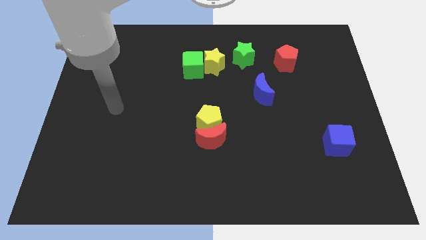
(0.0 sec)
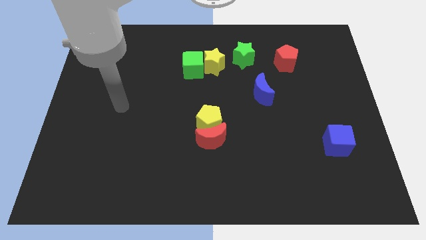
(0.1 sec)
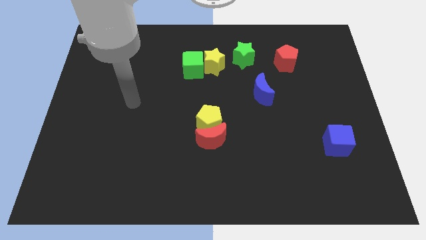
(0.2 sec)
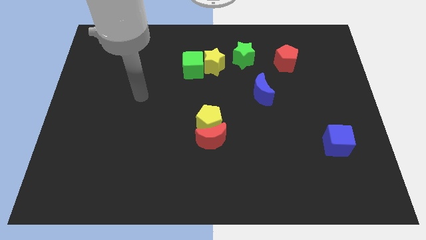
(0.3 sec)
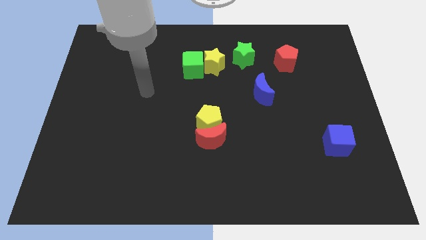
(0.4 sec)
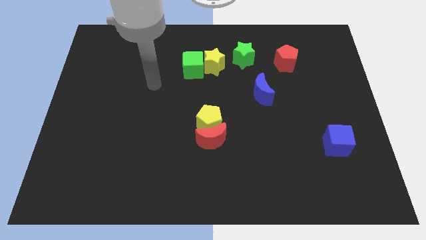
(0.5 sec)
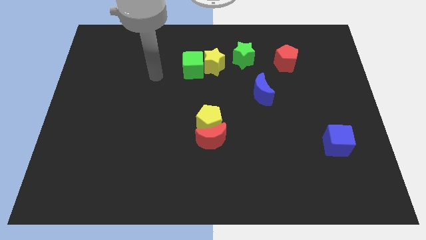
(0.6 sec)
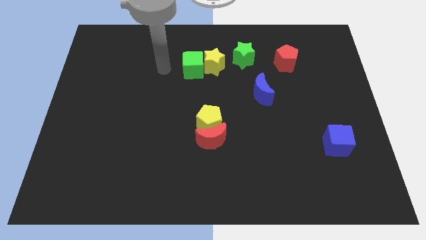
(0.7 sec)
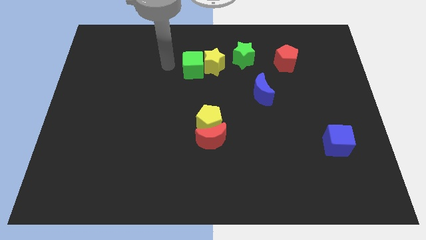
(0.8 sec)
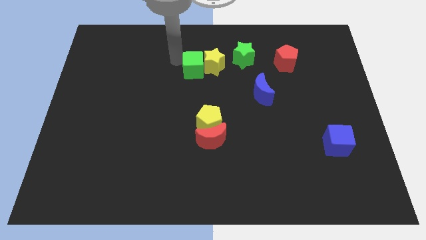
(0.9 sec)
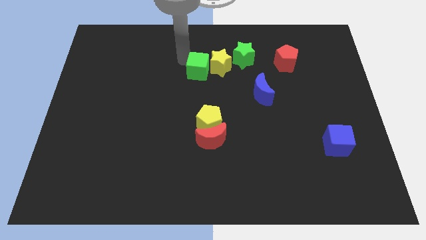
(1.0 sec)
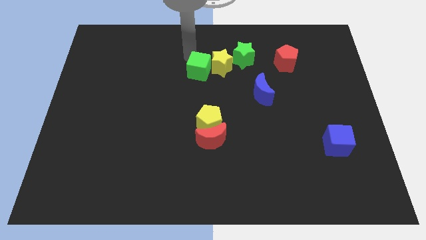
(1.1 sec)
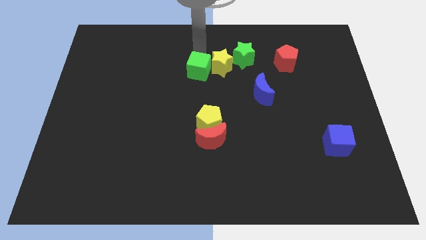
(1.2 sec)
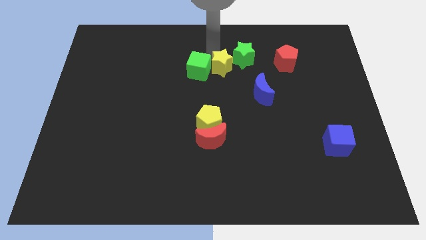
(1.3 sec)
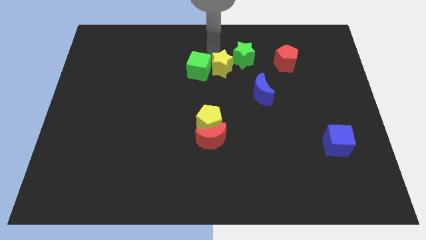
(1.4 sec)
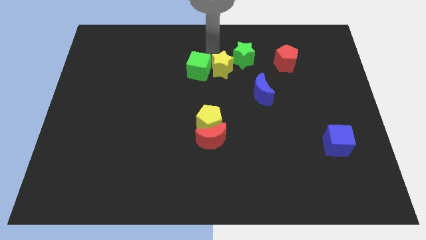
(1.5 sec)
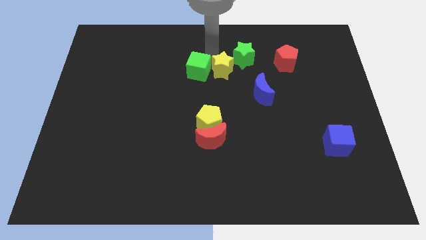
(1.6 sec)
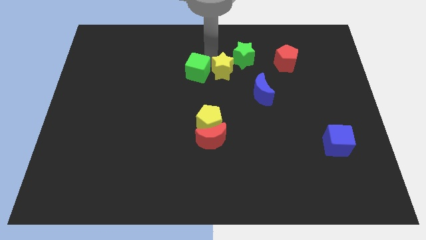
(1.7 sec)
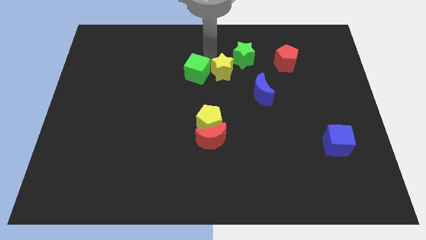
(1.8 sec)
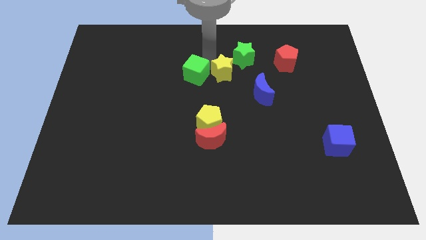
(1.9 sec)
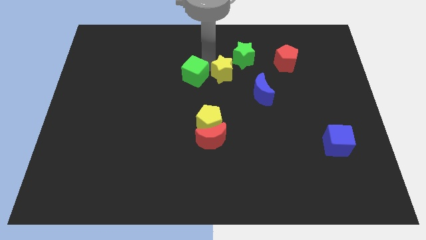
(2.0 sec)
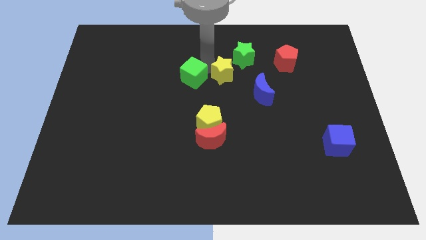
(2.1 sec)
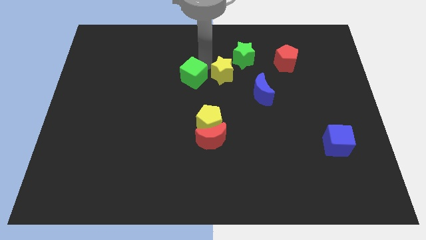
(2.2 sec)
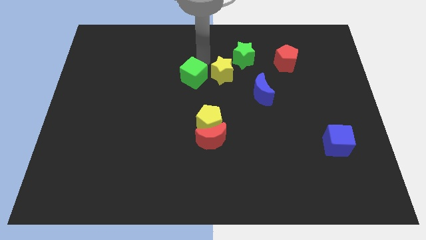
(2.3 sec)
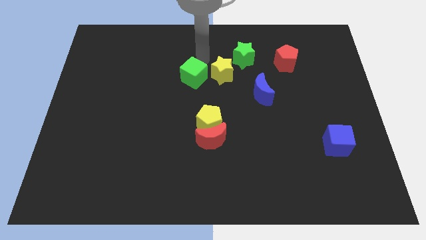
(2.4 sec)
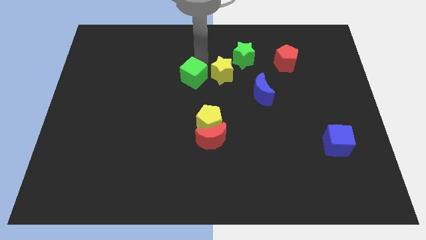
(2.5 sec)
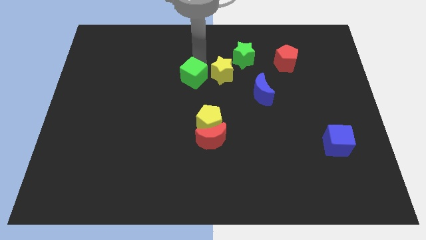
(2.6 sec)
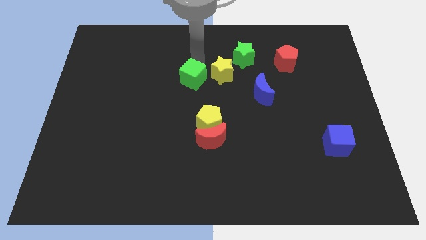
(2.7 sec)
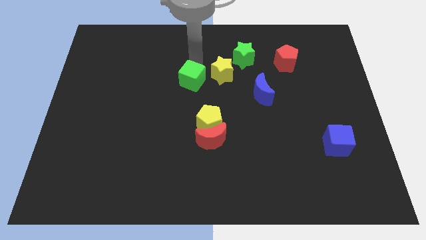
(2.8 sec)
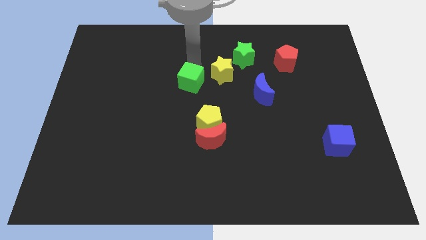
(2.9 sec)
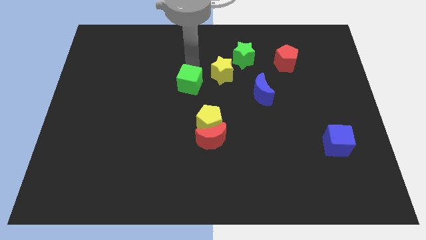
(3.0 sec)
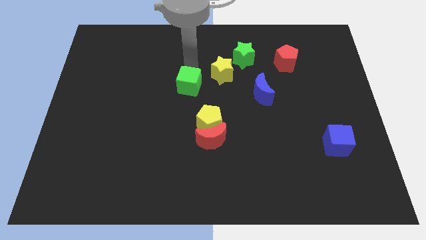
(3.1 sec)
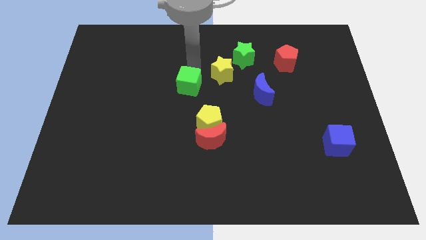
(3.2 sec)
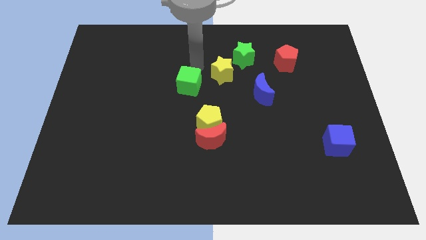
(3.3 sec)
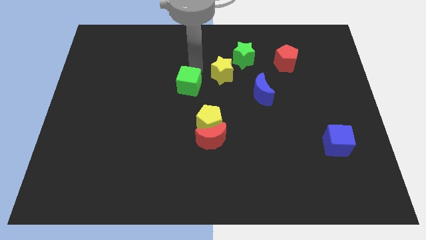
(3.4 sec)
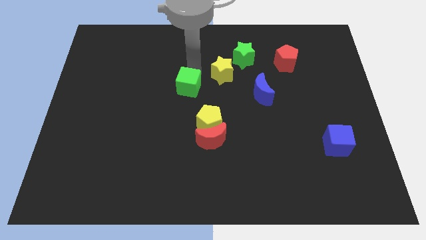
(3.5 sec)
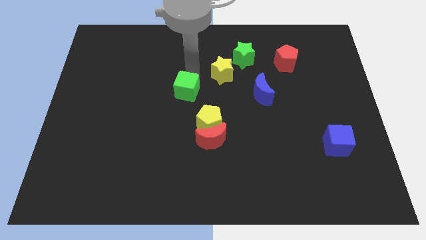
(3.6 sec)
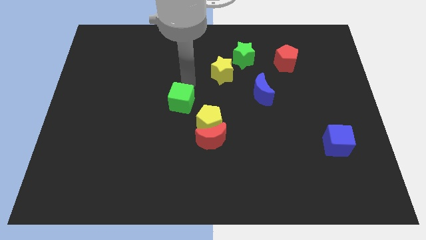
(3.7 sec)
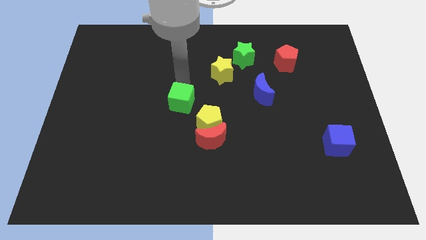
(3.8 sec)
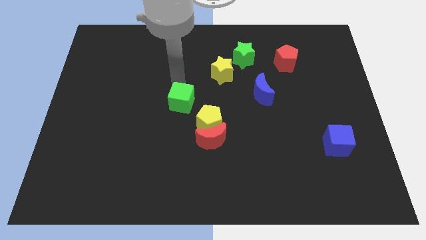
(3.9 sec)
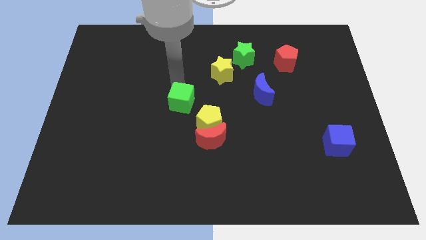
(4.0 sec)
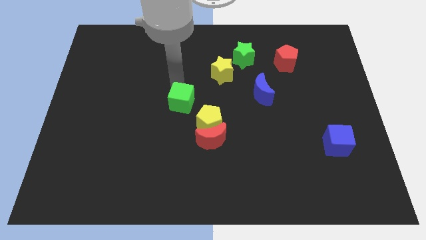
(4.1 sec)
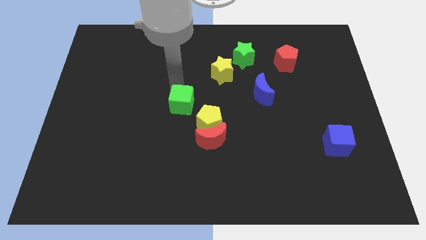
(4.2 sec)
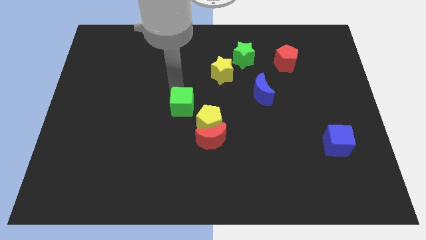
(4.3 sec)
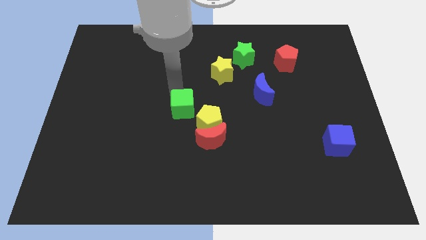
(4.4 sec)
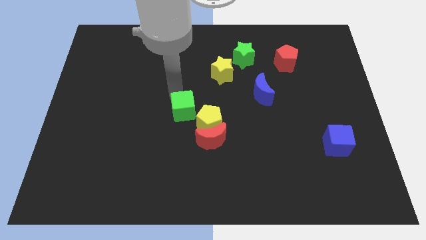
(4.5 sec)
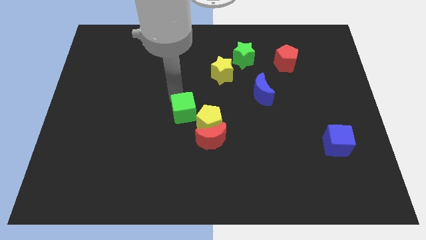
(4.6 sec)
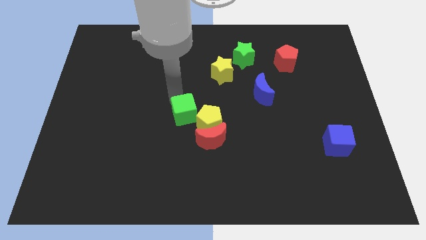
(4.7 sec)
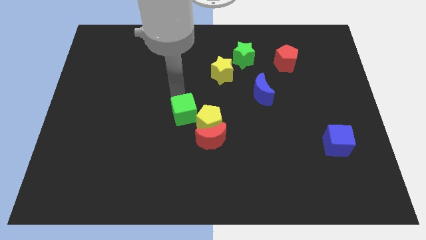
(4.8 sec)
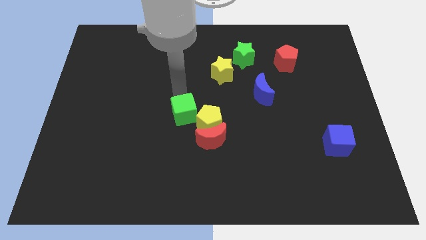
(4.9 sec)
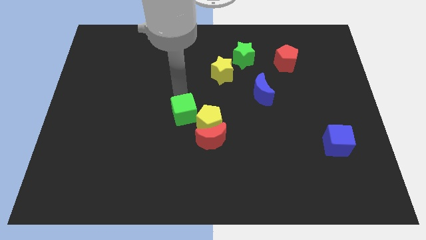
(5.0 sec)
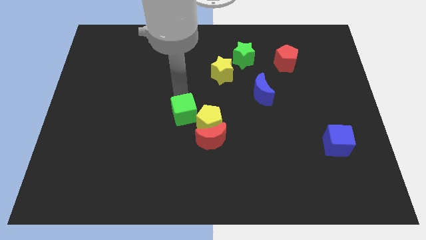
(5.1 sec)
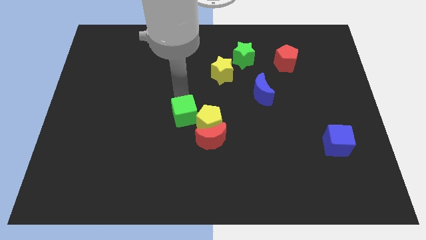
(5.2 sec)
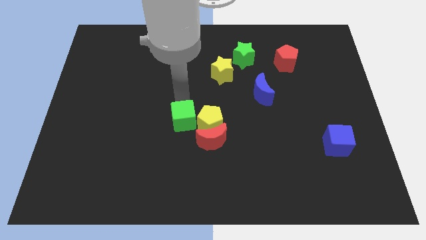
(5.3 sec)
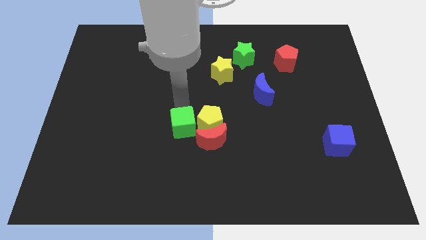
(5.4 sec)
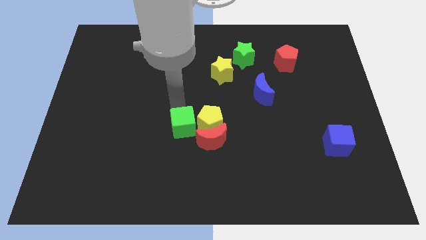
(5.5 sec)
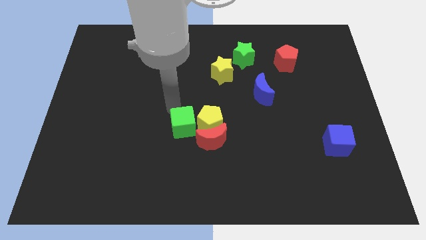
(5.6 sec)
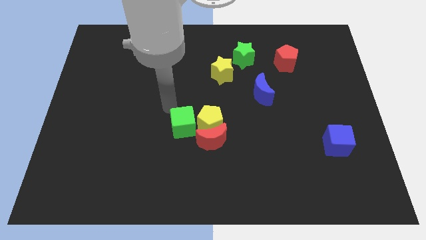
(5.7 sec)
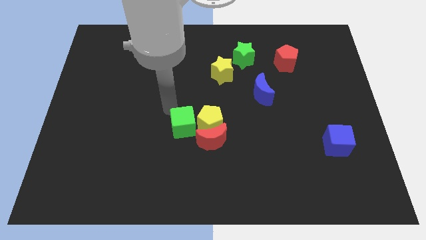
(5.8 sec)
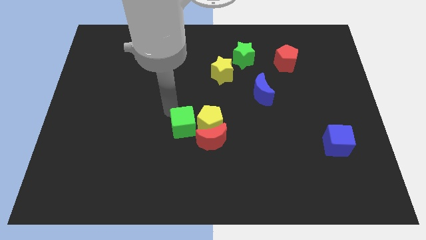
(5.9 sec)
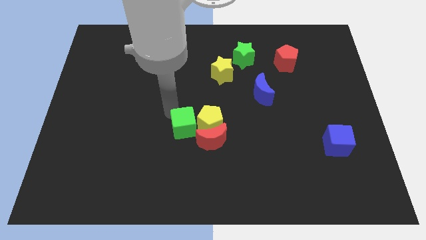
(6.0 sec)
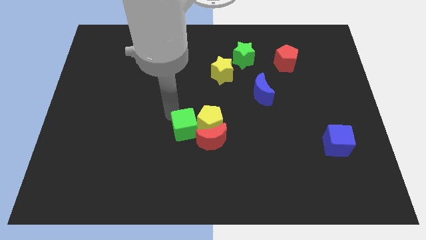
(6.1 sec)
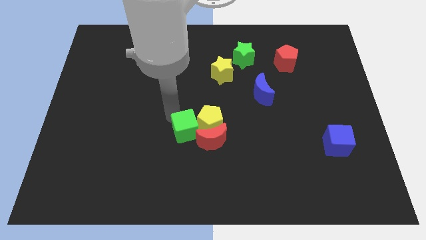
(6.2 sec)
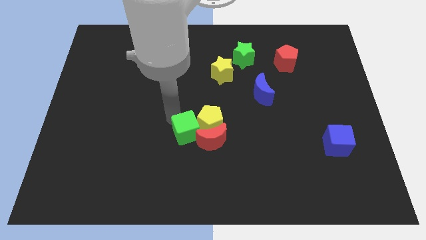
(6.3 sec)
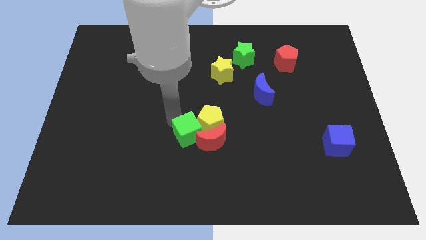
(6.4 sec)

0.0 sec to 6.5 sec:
put the green cube close to the red moon
